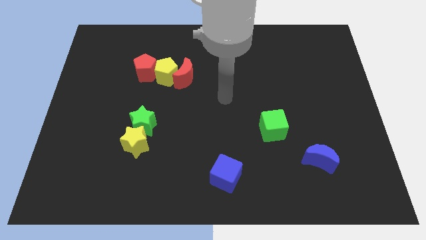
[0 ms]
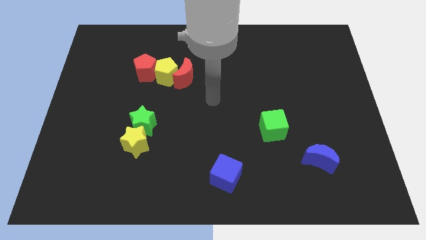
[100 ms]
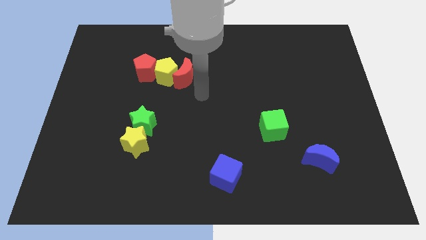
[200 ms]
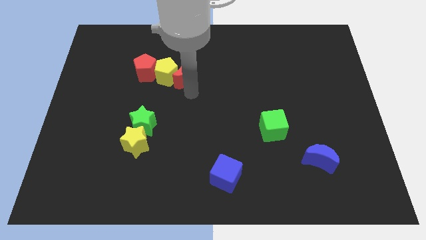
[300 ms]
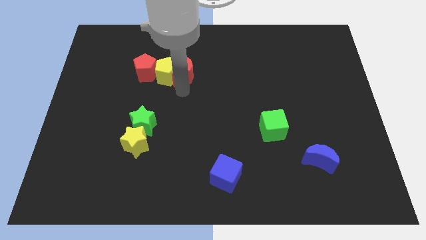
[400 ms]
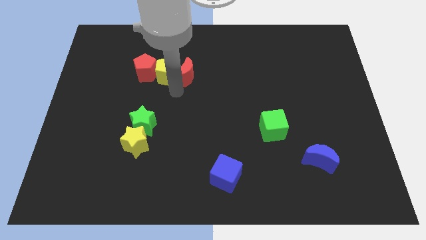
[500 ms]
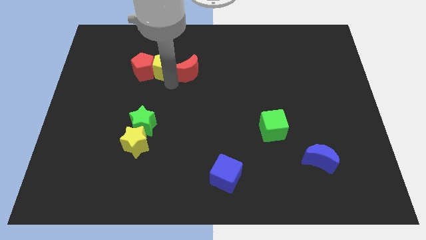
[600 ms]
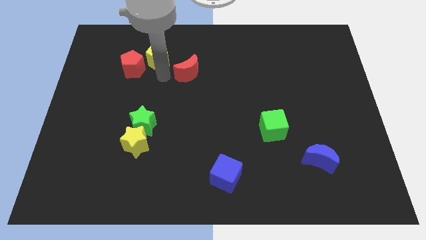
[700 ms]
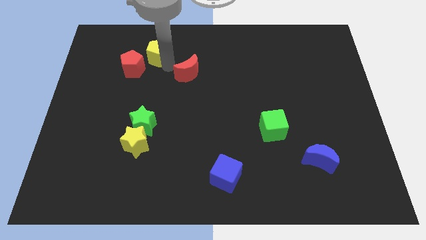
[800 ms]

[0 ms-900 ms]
move the red moon away from the yellow pentagon

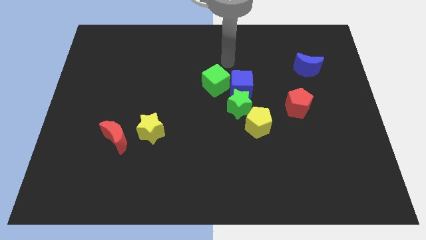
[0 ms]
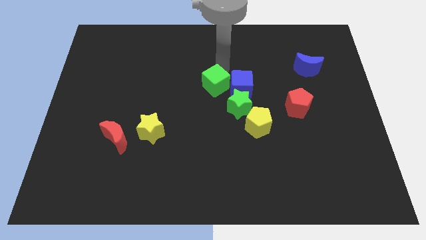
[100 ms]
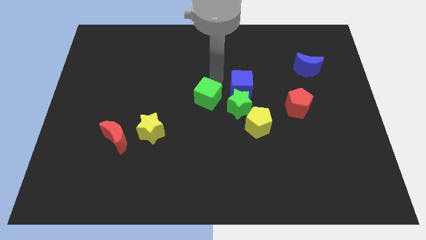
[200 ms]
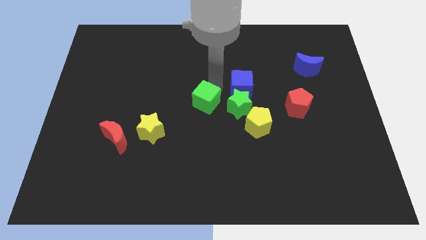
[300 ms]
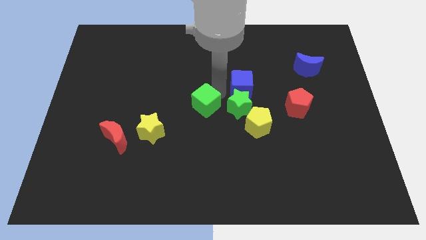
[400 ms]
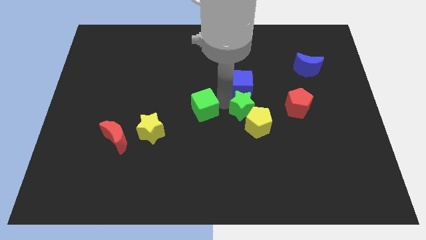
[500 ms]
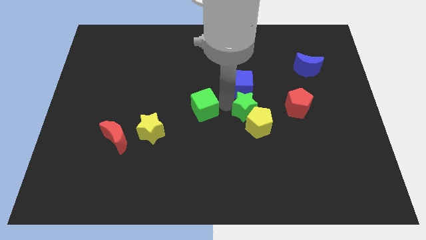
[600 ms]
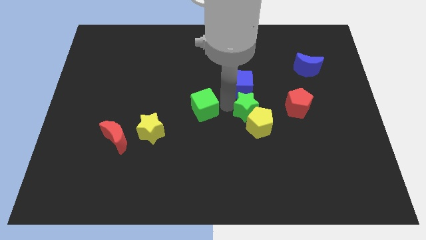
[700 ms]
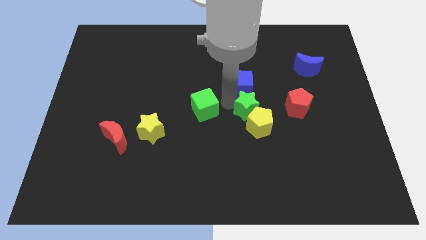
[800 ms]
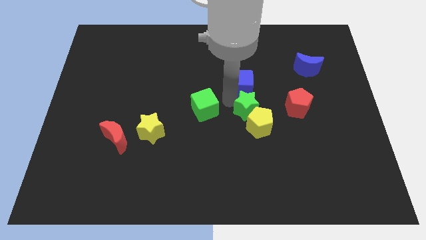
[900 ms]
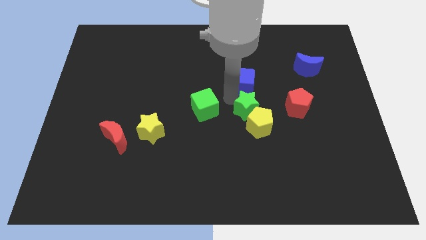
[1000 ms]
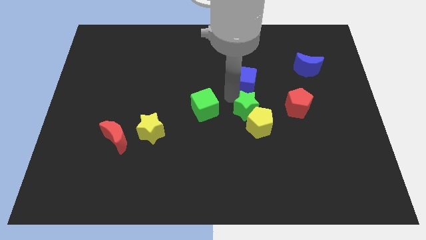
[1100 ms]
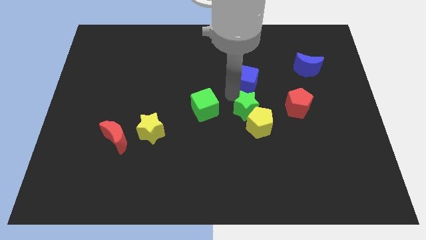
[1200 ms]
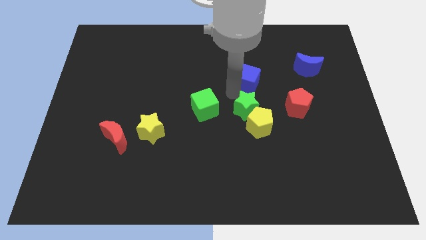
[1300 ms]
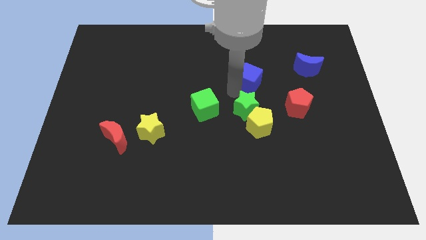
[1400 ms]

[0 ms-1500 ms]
move the blue cube away from the green star and green cube

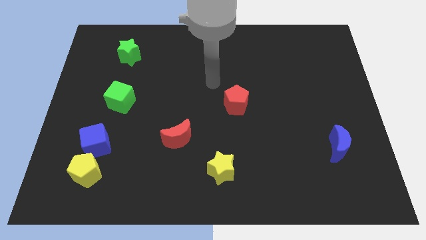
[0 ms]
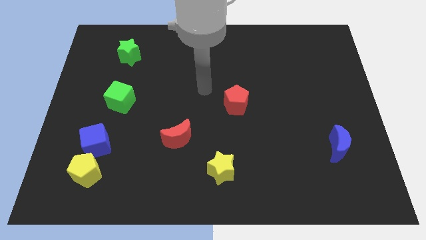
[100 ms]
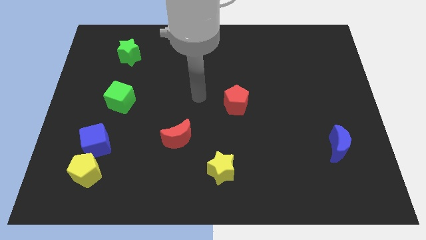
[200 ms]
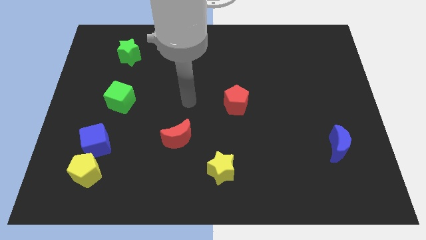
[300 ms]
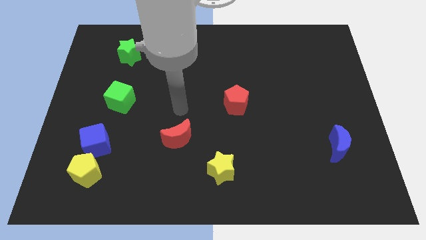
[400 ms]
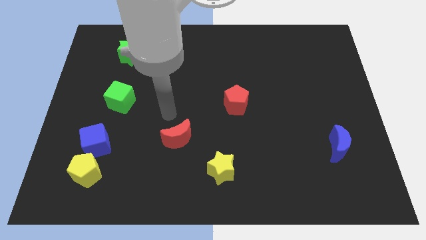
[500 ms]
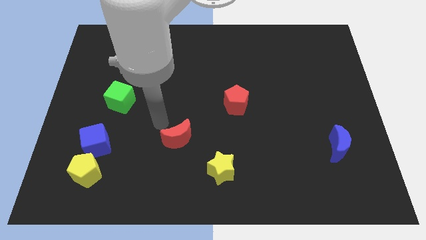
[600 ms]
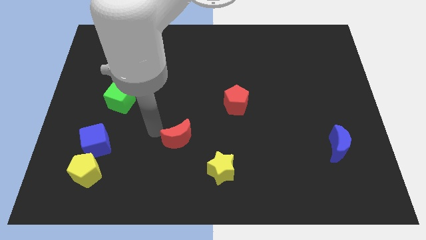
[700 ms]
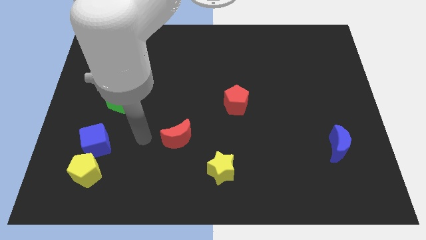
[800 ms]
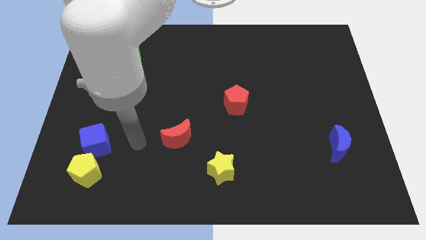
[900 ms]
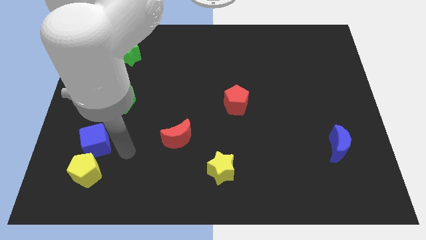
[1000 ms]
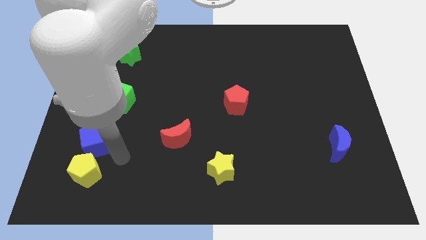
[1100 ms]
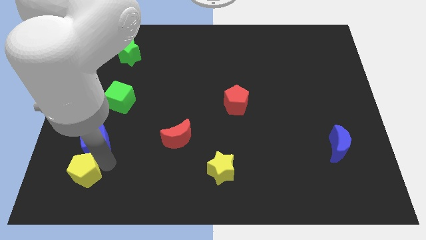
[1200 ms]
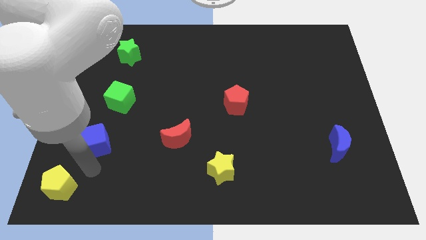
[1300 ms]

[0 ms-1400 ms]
pull the blue cube apart from the yellow pentagon

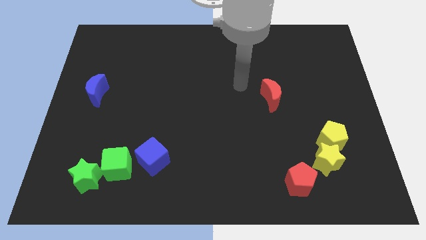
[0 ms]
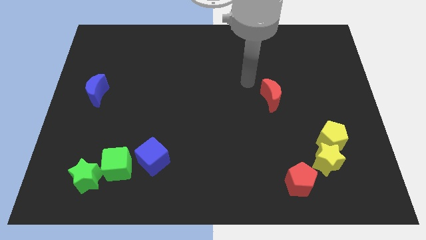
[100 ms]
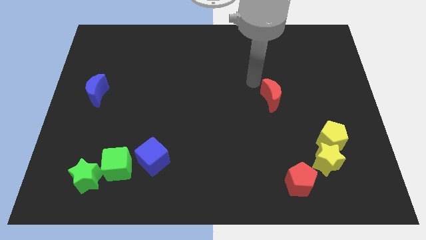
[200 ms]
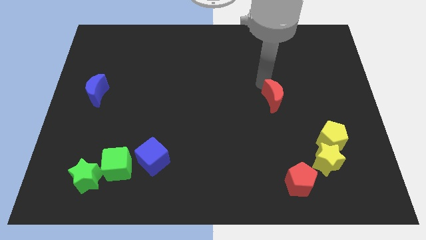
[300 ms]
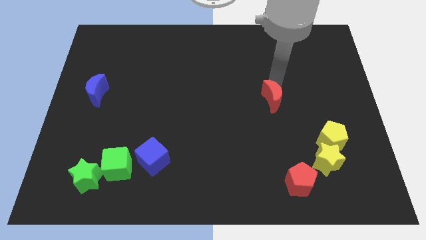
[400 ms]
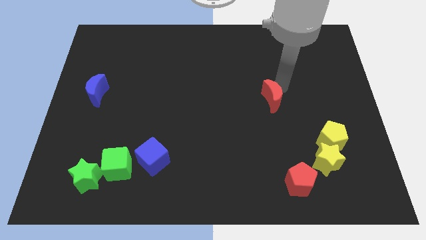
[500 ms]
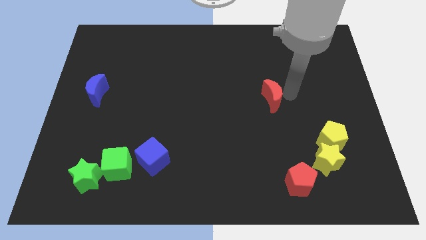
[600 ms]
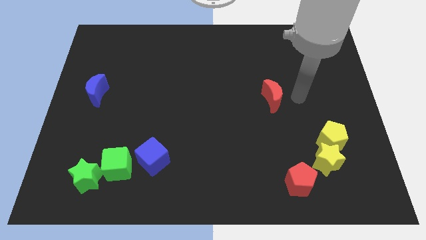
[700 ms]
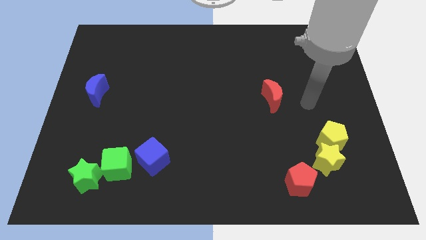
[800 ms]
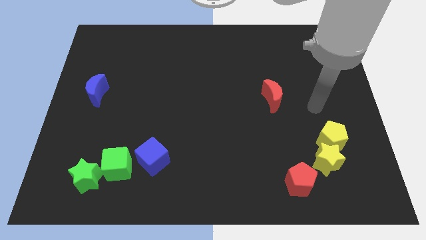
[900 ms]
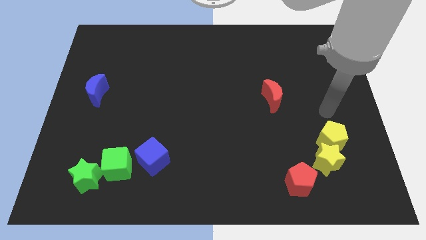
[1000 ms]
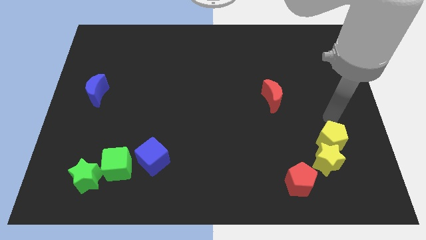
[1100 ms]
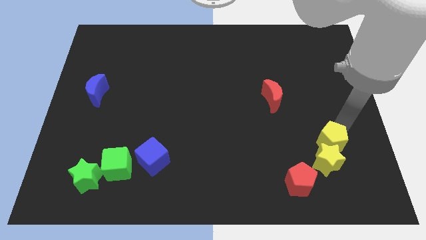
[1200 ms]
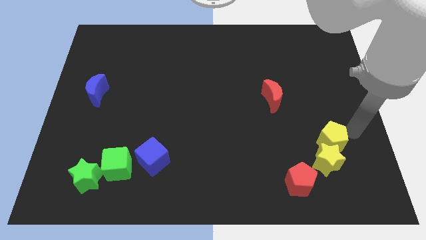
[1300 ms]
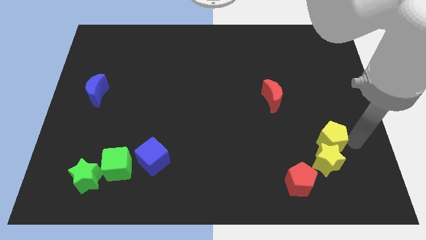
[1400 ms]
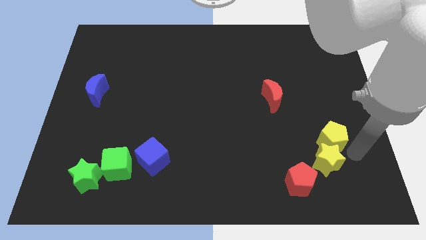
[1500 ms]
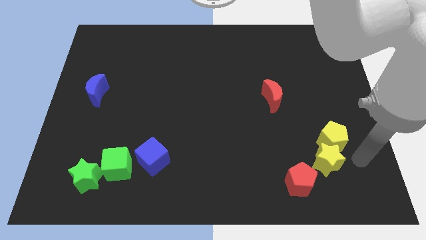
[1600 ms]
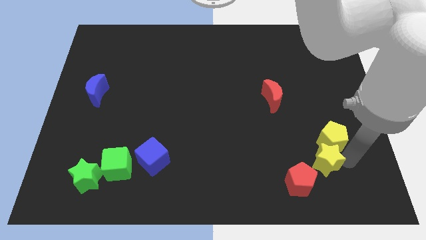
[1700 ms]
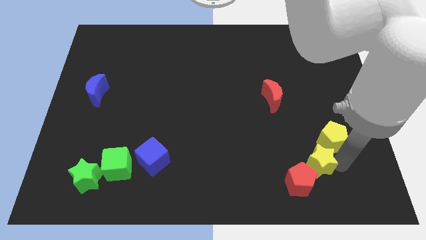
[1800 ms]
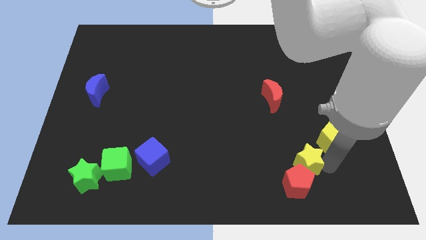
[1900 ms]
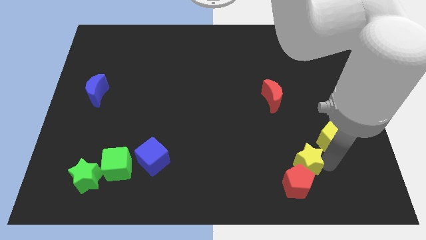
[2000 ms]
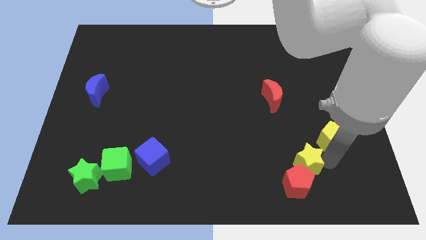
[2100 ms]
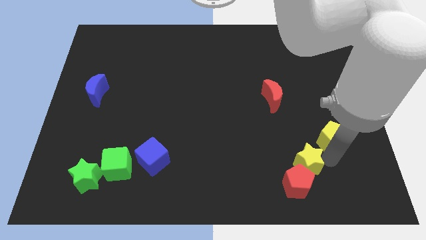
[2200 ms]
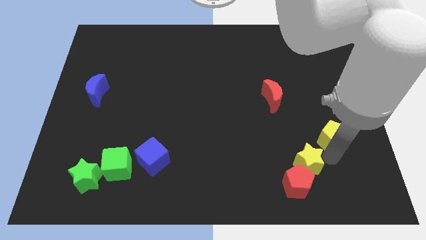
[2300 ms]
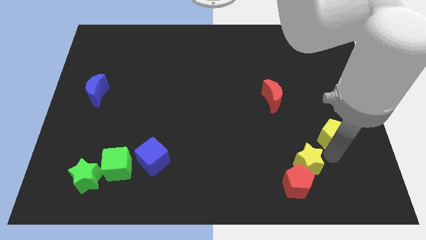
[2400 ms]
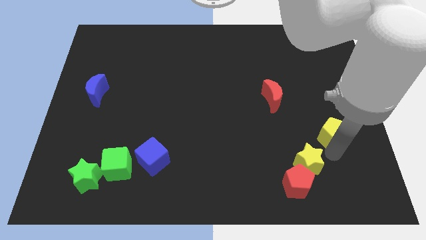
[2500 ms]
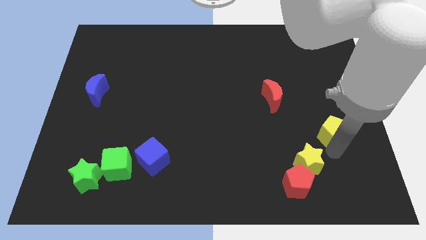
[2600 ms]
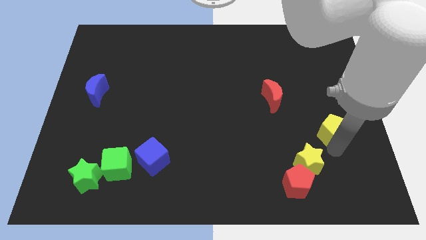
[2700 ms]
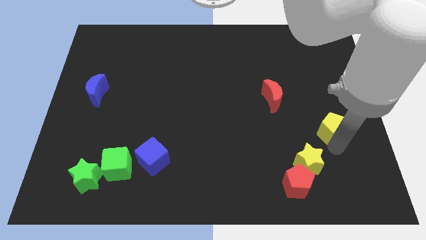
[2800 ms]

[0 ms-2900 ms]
pull the yellow pentagon apart from the yellow star

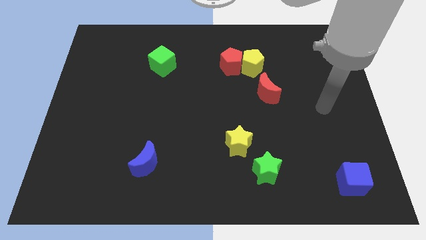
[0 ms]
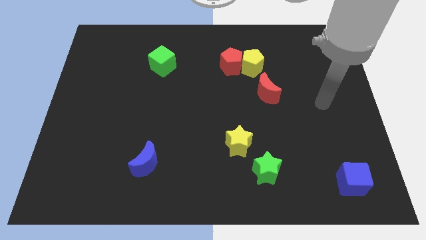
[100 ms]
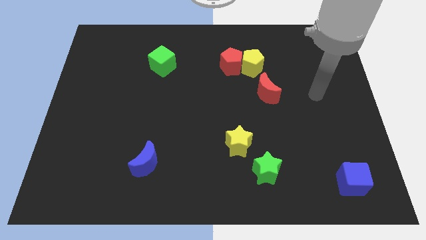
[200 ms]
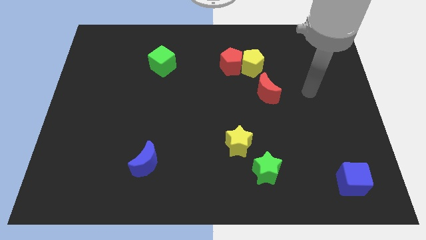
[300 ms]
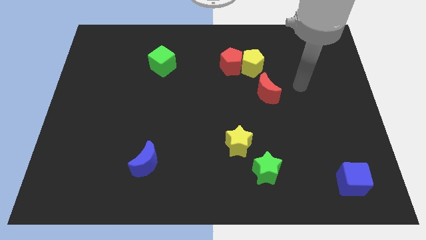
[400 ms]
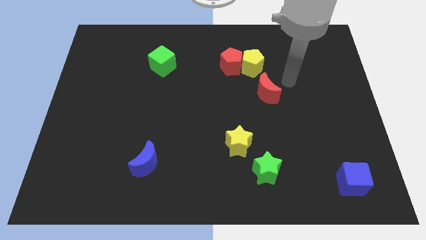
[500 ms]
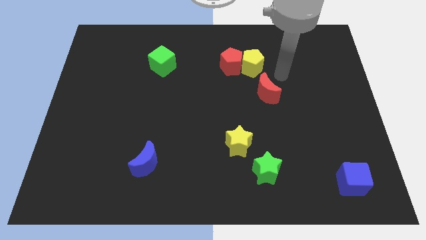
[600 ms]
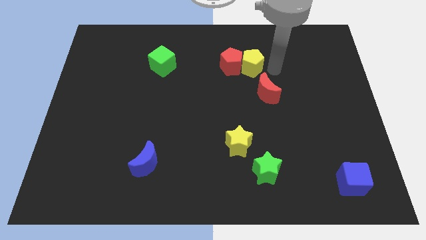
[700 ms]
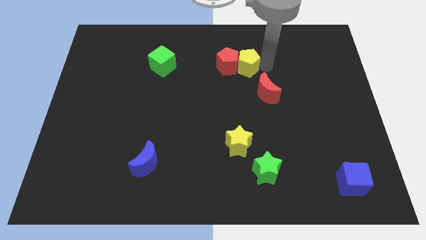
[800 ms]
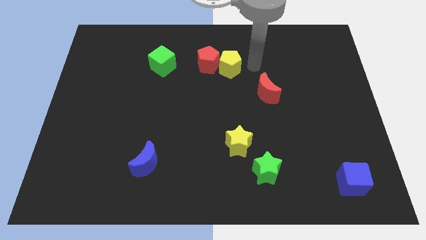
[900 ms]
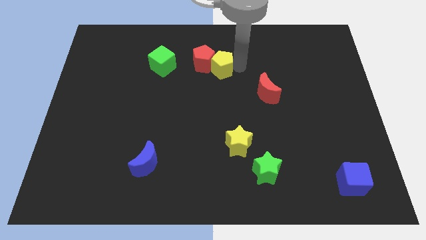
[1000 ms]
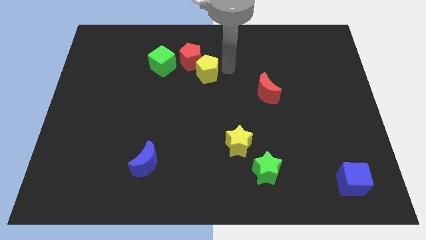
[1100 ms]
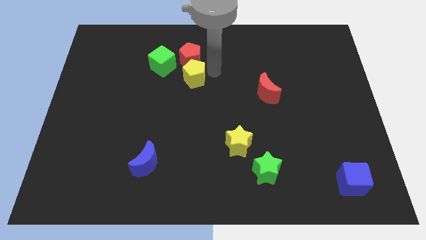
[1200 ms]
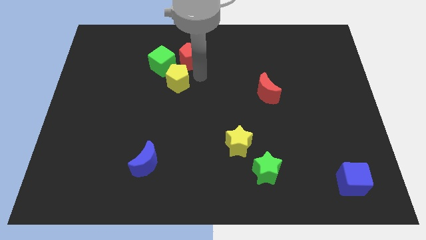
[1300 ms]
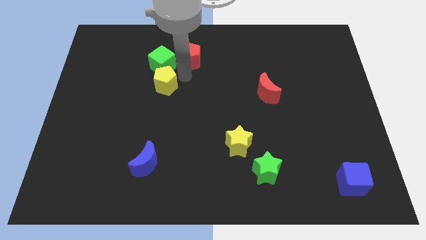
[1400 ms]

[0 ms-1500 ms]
pull the red pentagon apart from the yellow pentagon

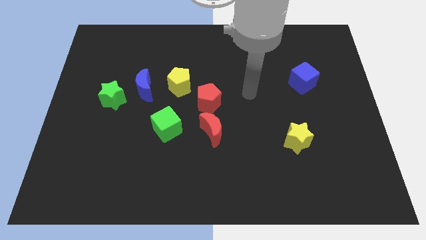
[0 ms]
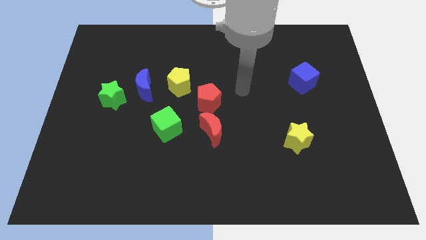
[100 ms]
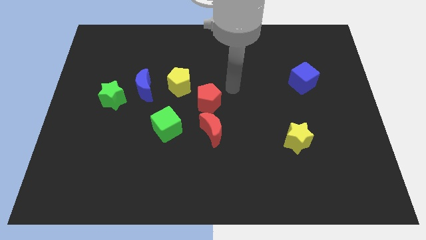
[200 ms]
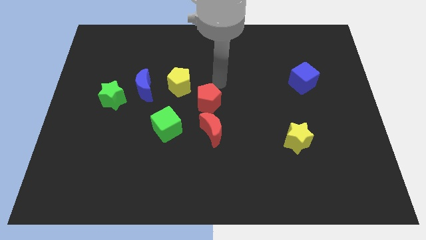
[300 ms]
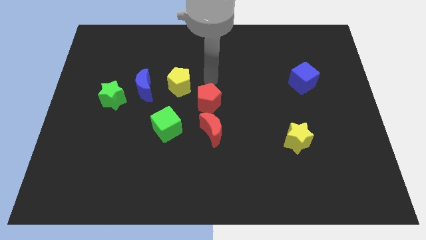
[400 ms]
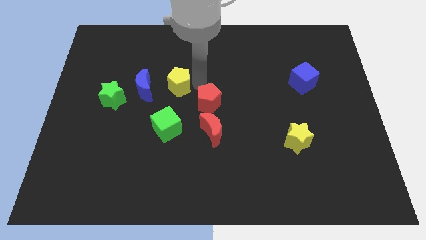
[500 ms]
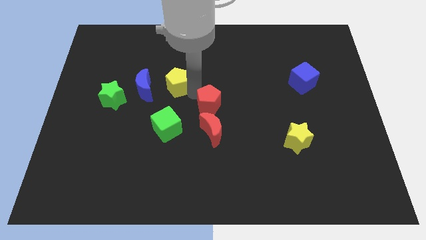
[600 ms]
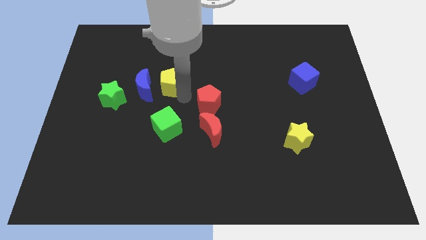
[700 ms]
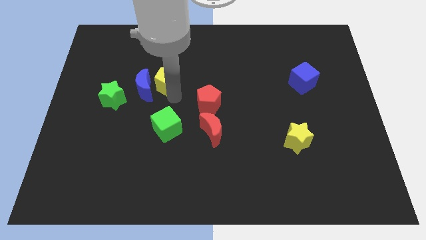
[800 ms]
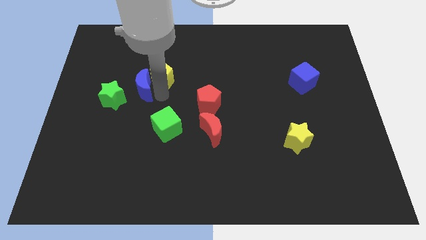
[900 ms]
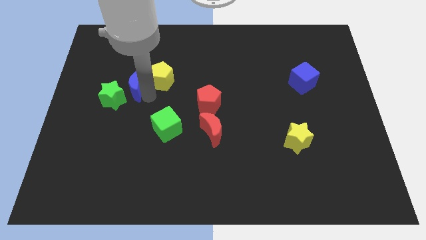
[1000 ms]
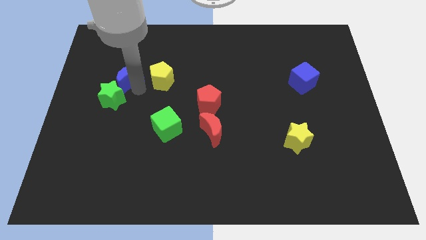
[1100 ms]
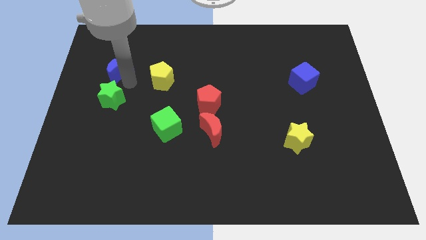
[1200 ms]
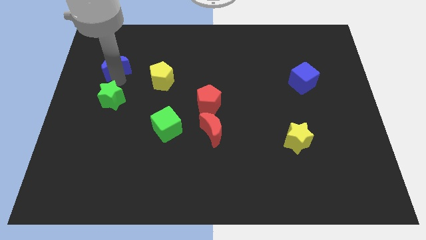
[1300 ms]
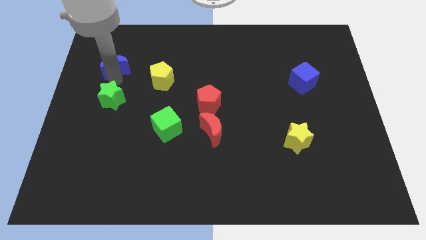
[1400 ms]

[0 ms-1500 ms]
separate the green star from the blue moon
